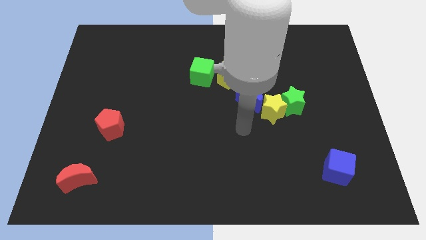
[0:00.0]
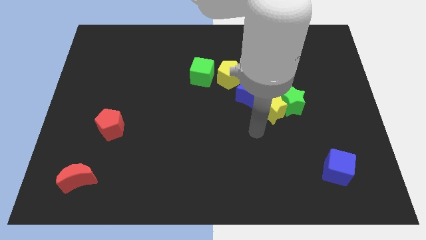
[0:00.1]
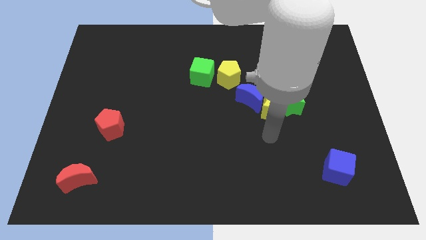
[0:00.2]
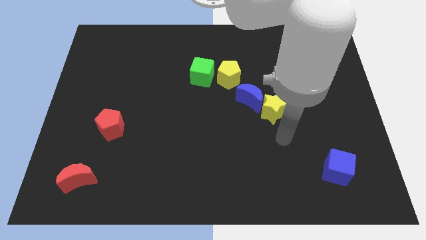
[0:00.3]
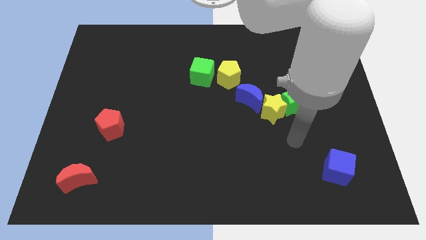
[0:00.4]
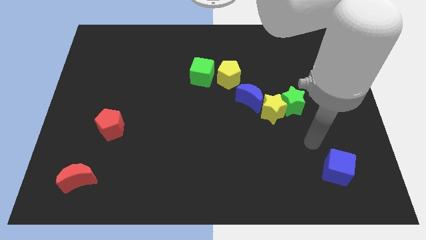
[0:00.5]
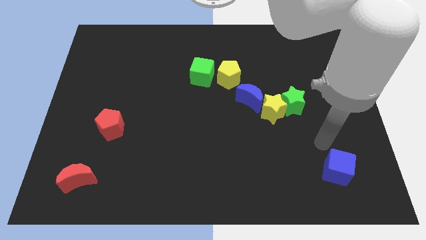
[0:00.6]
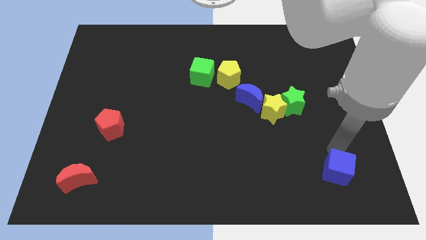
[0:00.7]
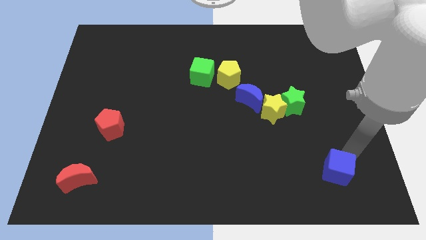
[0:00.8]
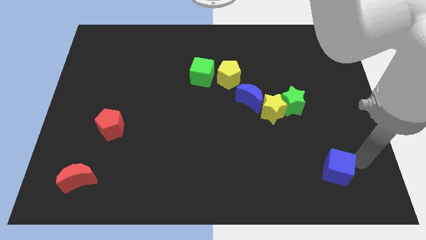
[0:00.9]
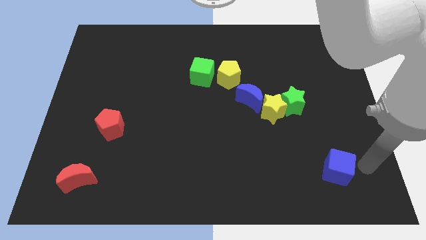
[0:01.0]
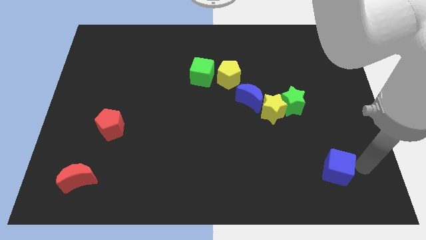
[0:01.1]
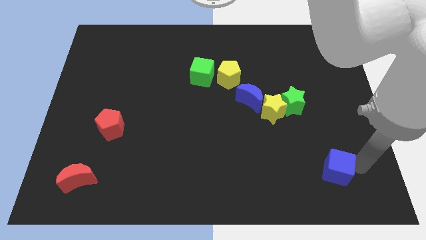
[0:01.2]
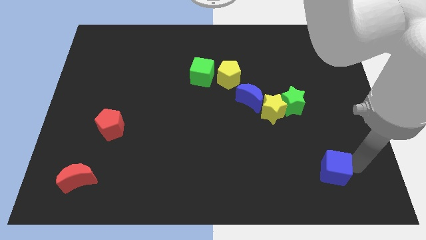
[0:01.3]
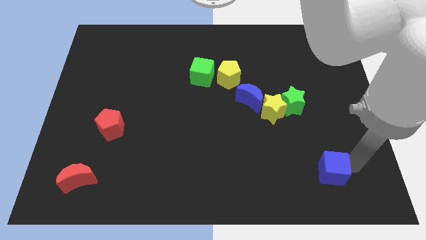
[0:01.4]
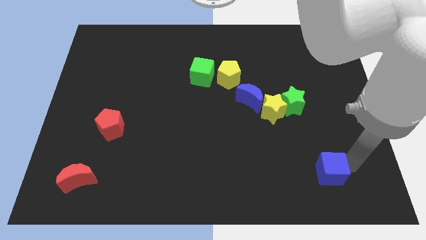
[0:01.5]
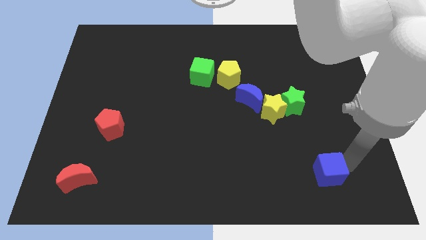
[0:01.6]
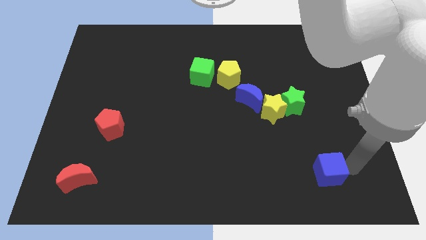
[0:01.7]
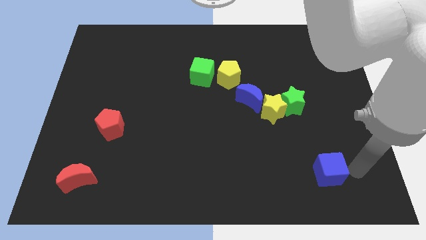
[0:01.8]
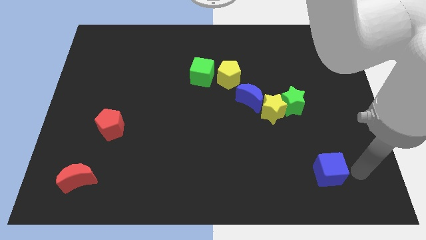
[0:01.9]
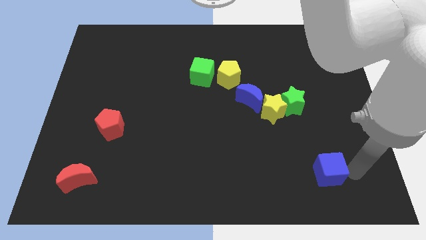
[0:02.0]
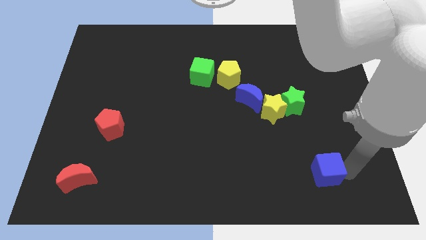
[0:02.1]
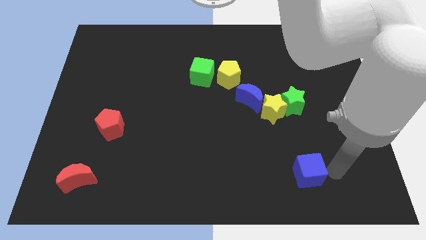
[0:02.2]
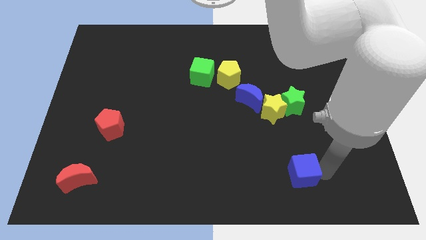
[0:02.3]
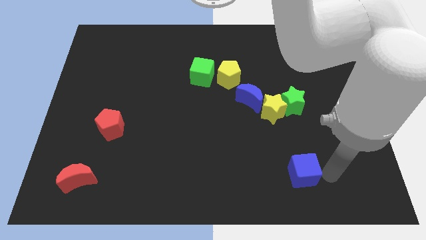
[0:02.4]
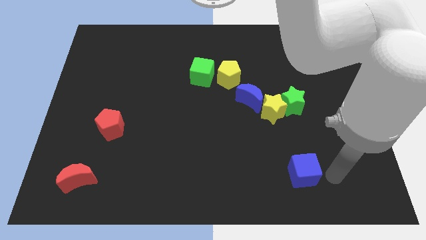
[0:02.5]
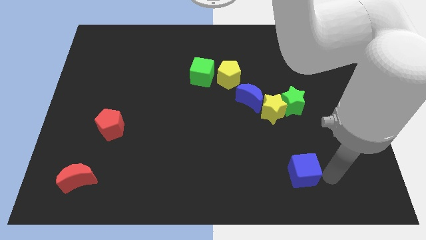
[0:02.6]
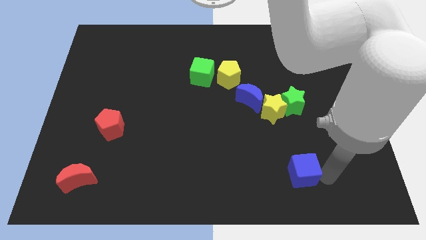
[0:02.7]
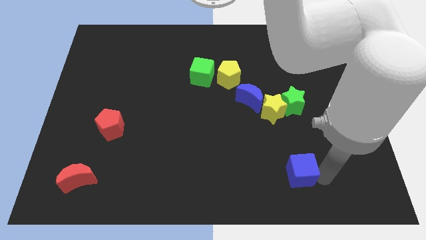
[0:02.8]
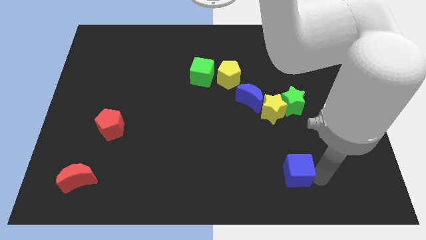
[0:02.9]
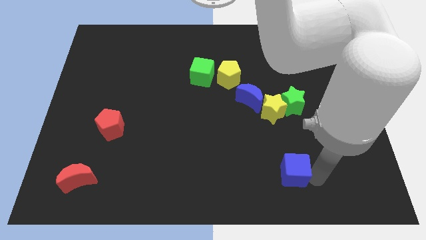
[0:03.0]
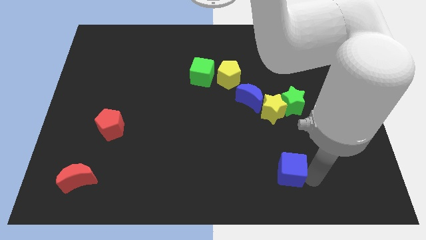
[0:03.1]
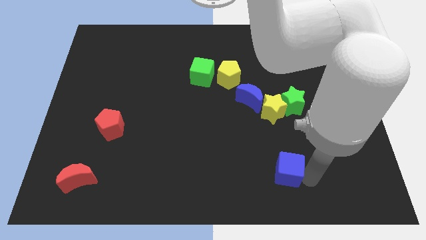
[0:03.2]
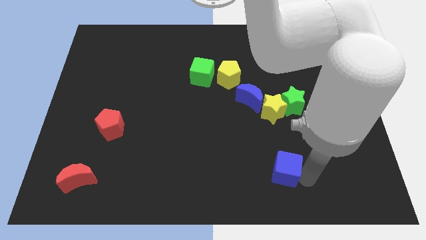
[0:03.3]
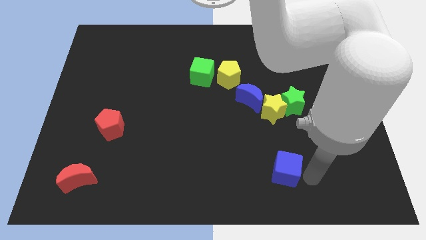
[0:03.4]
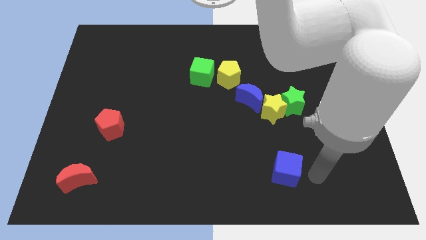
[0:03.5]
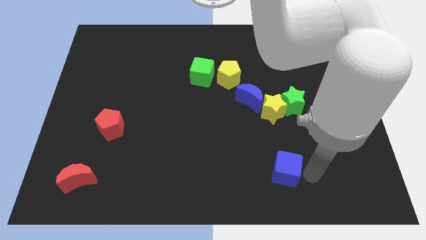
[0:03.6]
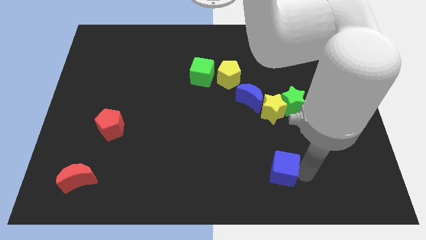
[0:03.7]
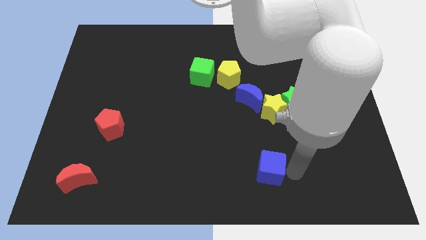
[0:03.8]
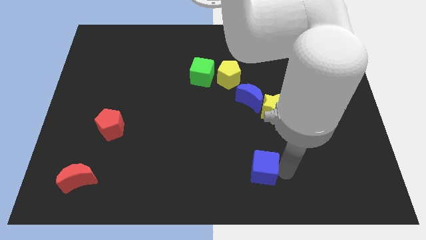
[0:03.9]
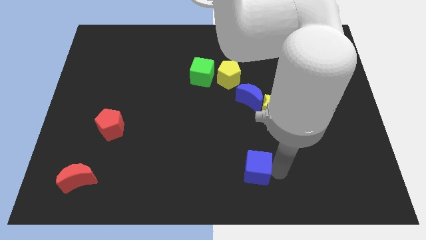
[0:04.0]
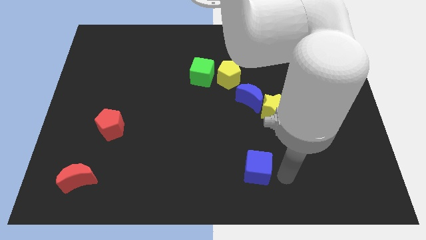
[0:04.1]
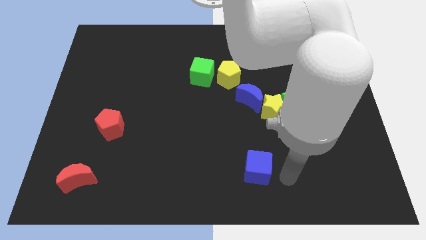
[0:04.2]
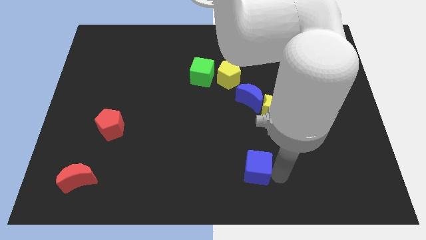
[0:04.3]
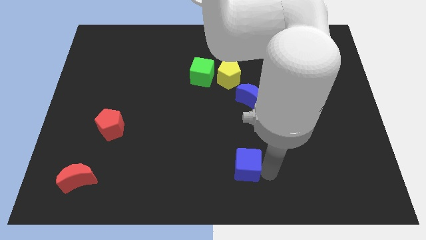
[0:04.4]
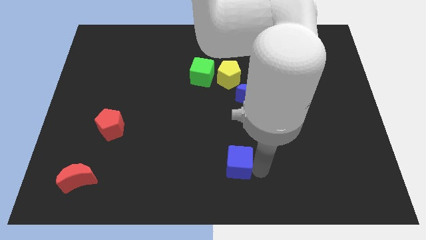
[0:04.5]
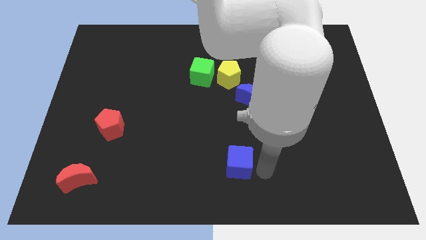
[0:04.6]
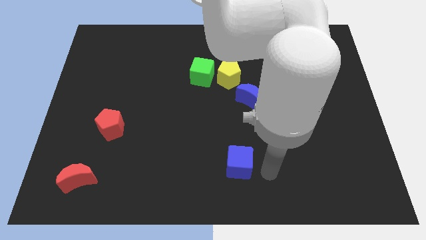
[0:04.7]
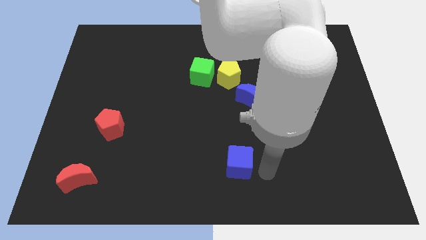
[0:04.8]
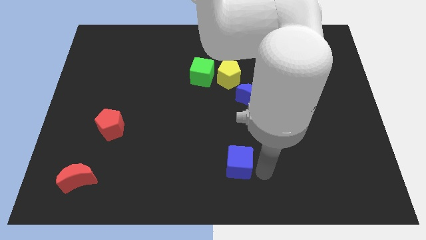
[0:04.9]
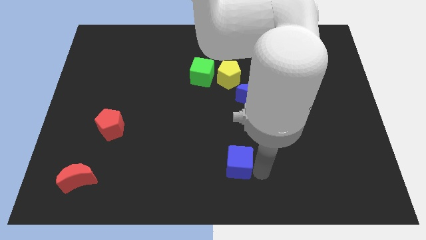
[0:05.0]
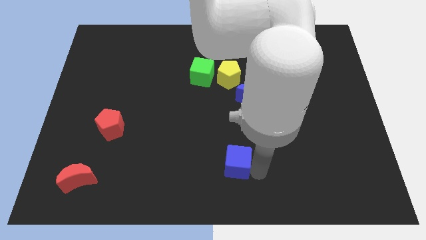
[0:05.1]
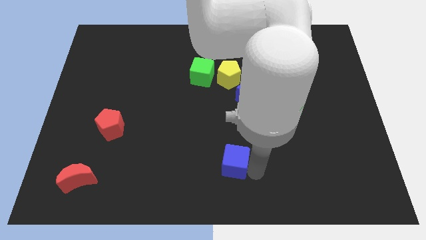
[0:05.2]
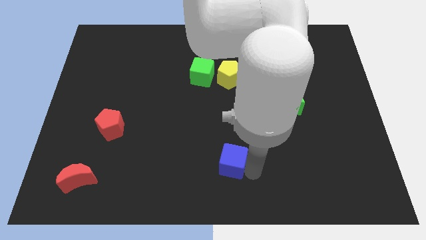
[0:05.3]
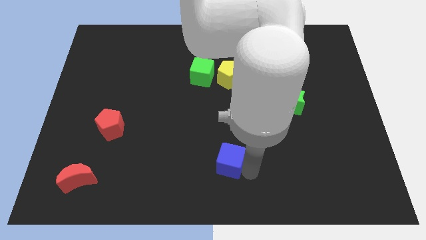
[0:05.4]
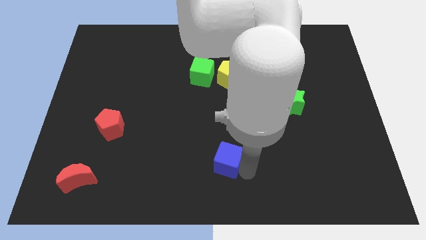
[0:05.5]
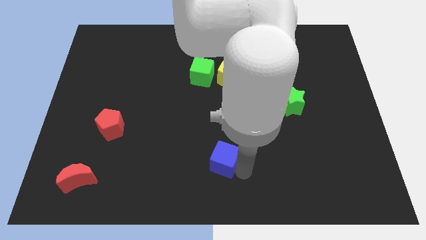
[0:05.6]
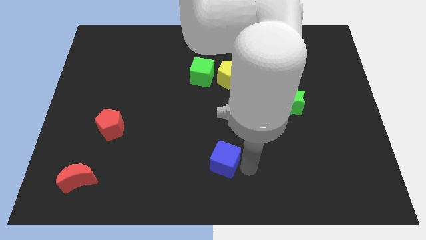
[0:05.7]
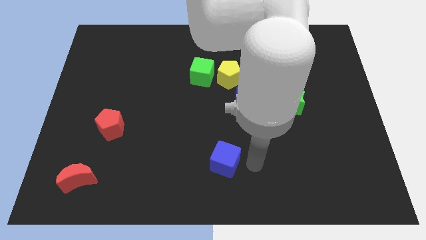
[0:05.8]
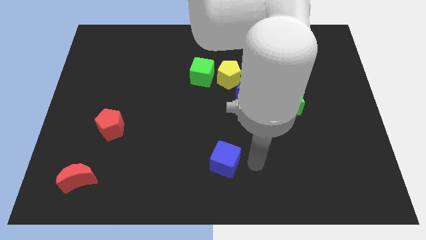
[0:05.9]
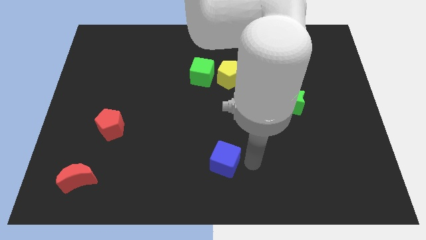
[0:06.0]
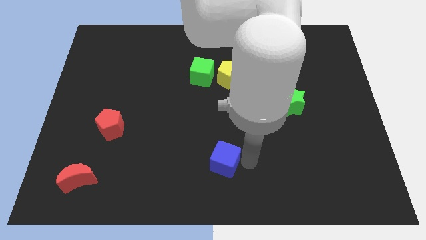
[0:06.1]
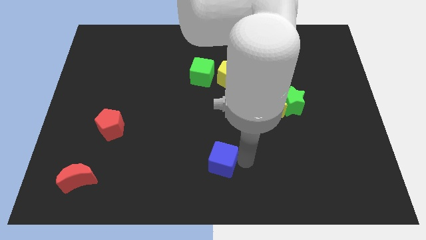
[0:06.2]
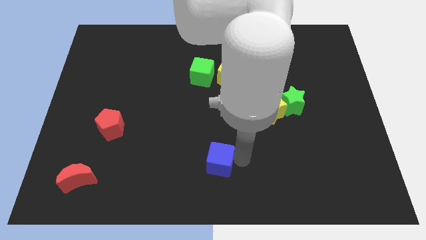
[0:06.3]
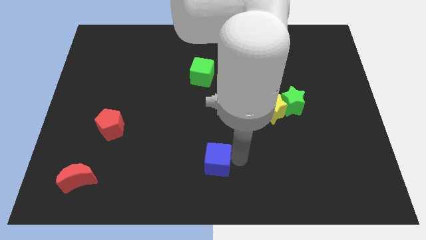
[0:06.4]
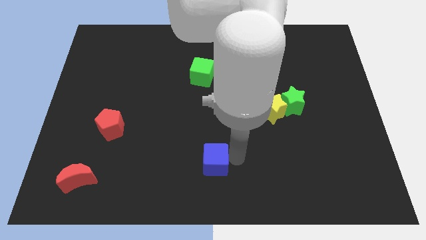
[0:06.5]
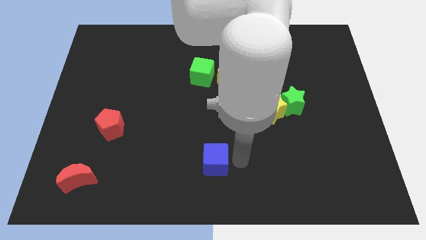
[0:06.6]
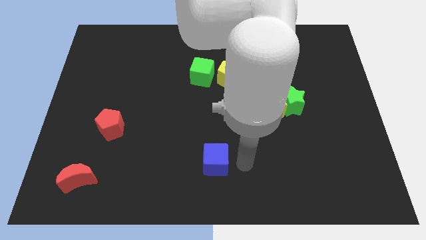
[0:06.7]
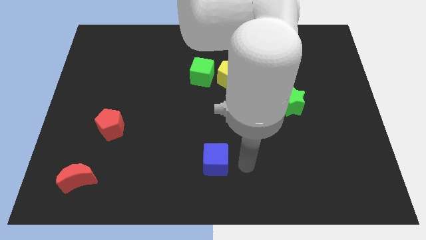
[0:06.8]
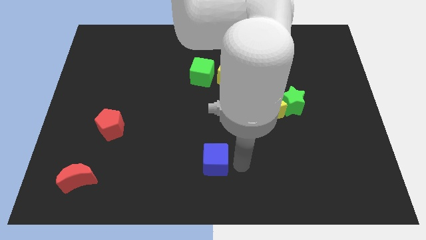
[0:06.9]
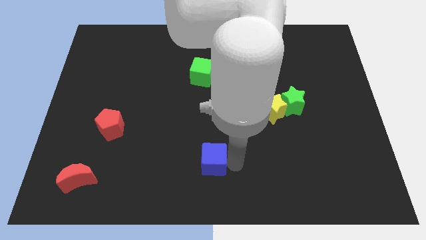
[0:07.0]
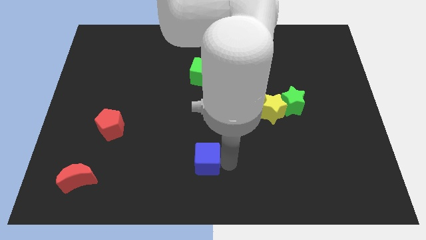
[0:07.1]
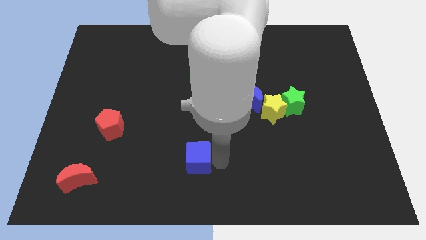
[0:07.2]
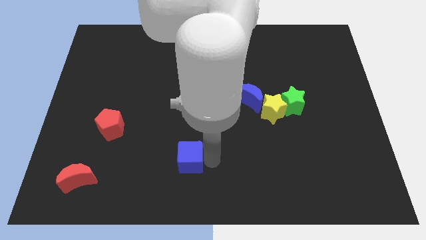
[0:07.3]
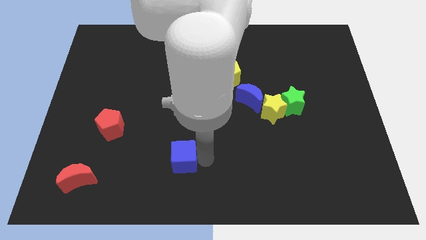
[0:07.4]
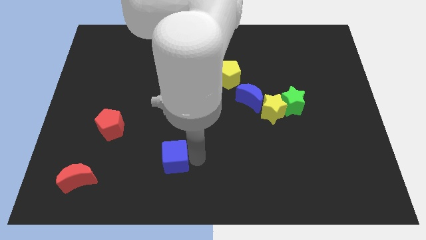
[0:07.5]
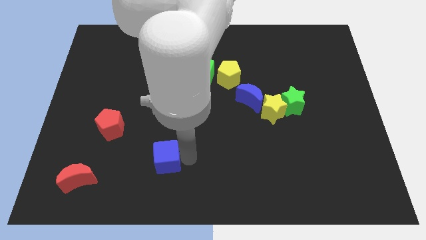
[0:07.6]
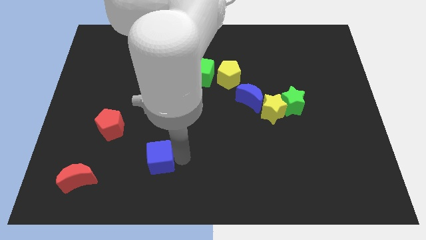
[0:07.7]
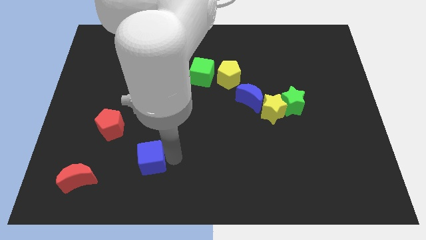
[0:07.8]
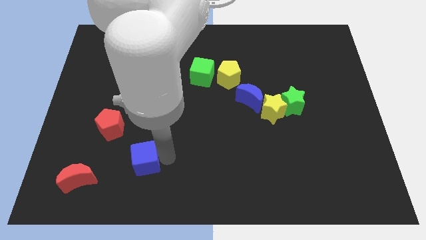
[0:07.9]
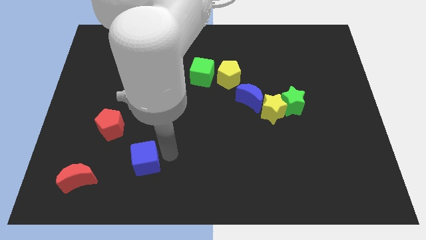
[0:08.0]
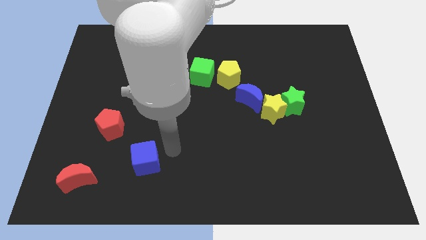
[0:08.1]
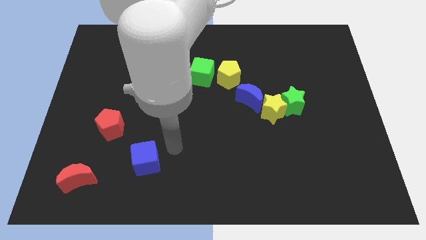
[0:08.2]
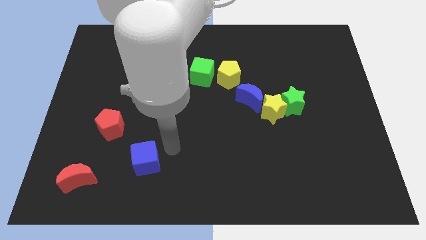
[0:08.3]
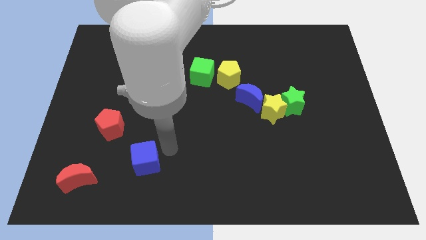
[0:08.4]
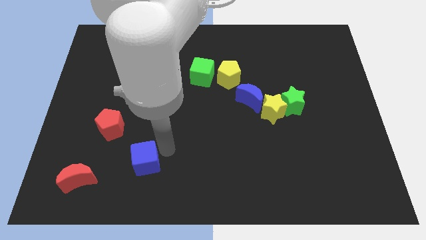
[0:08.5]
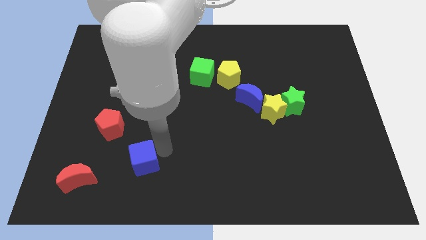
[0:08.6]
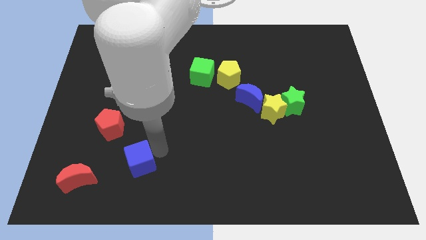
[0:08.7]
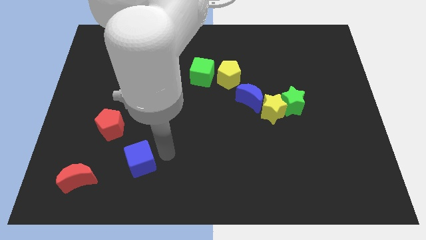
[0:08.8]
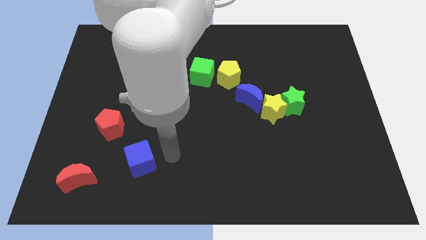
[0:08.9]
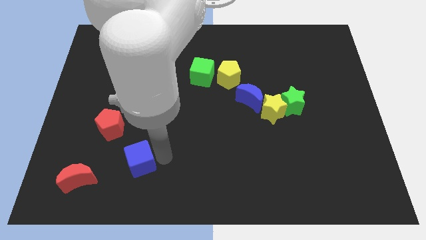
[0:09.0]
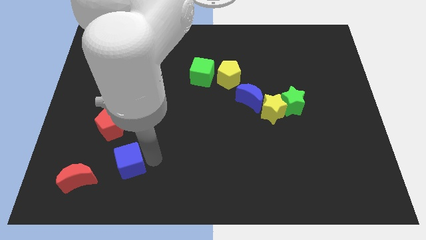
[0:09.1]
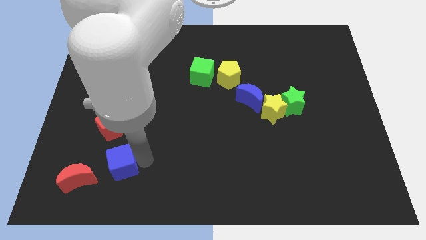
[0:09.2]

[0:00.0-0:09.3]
move the blue cube below the red pentagon
